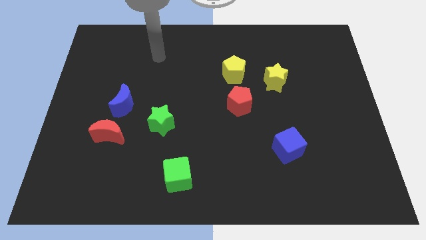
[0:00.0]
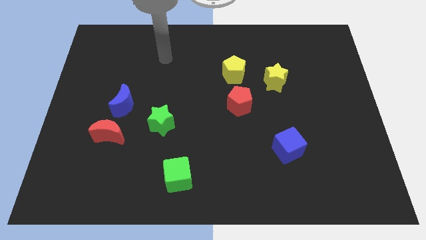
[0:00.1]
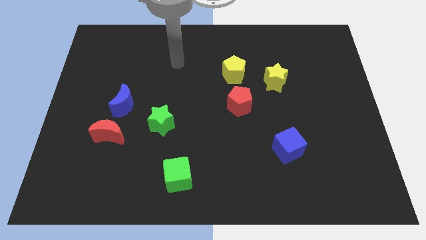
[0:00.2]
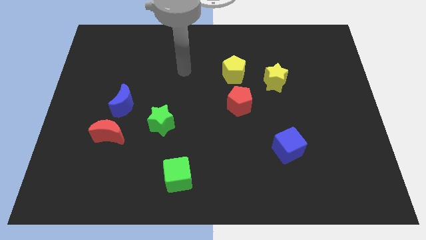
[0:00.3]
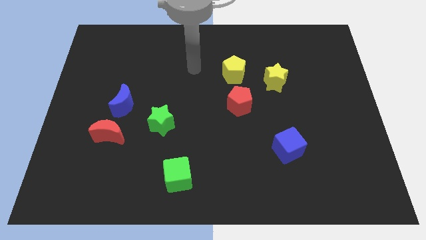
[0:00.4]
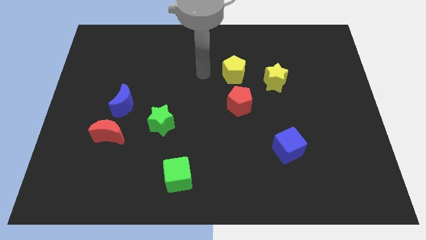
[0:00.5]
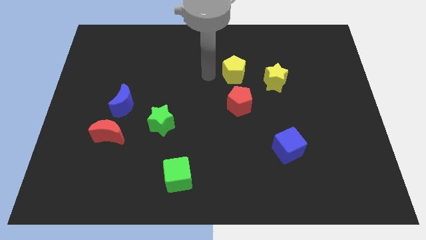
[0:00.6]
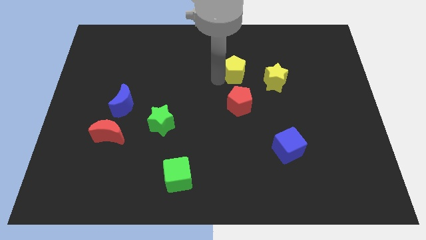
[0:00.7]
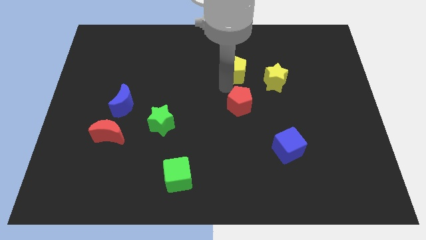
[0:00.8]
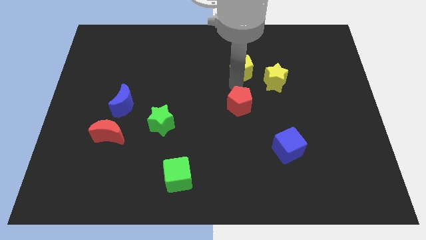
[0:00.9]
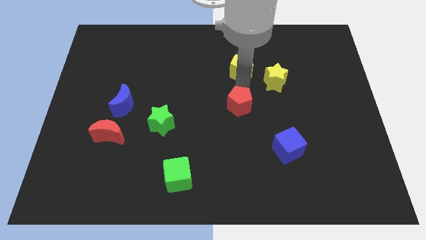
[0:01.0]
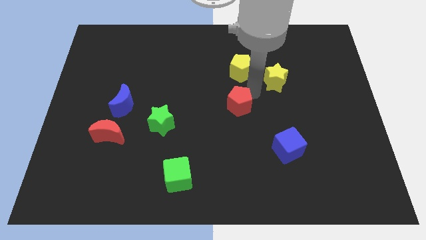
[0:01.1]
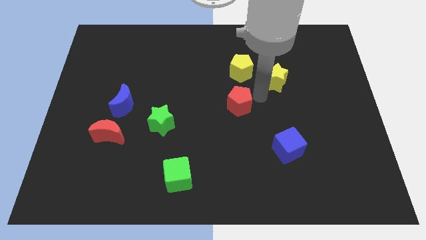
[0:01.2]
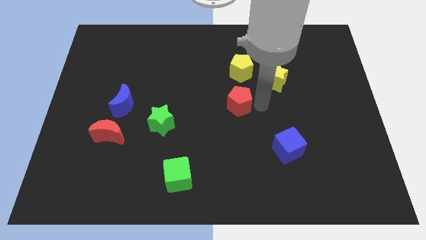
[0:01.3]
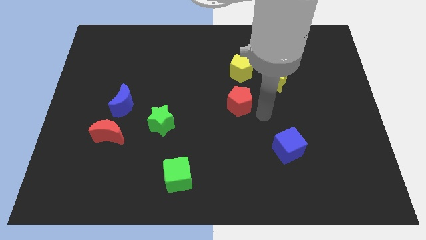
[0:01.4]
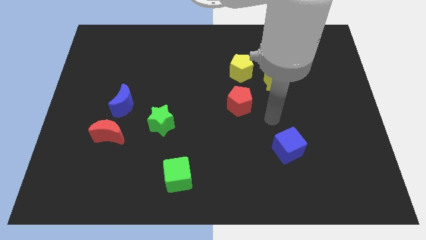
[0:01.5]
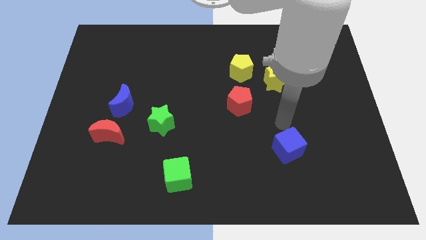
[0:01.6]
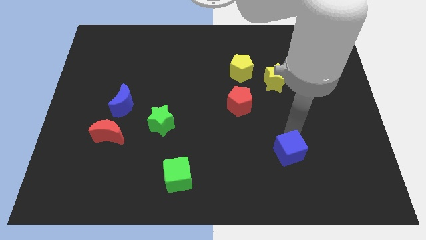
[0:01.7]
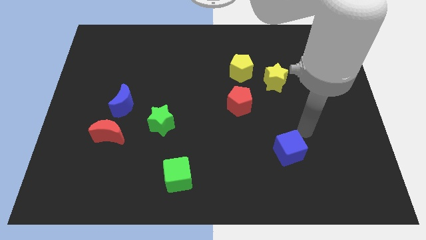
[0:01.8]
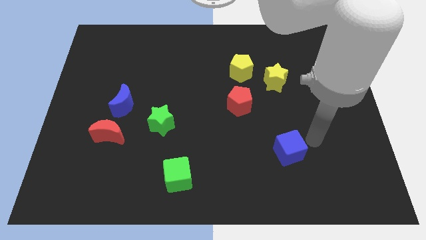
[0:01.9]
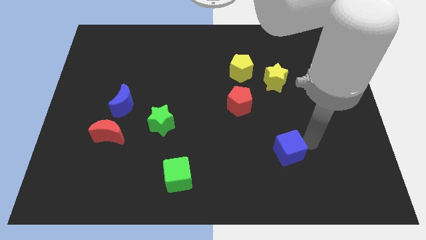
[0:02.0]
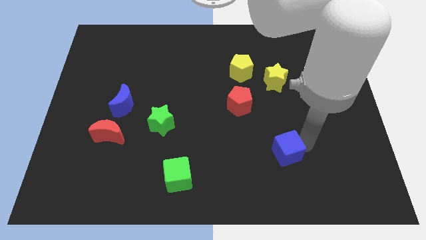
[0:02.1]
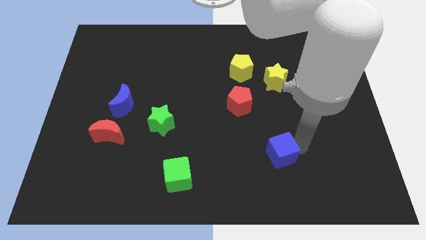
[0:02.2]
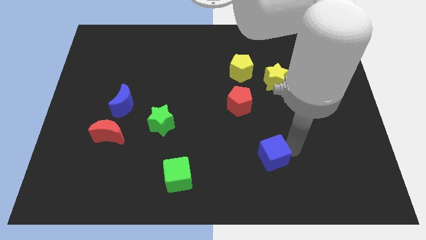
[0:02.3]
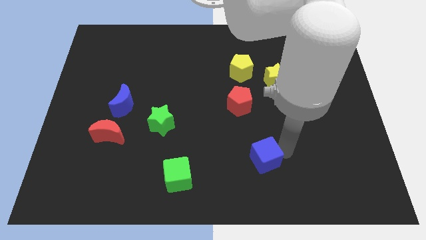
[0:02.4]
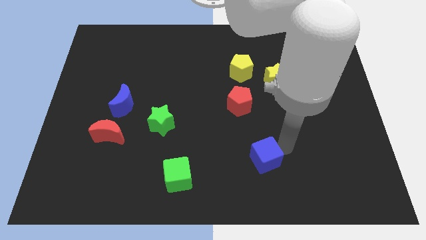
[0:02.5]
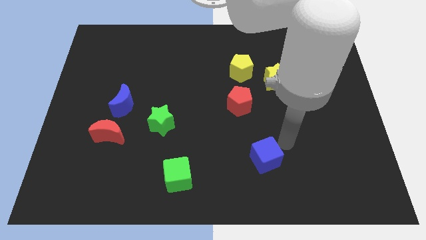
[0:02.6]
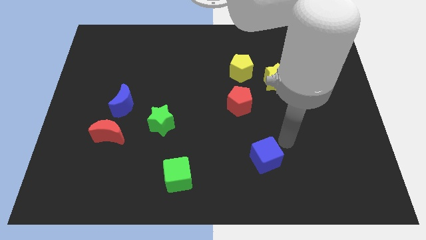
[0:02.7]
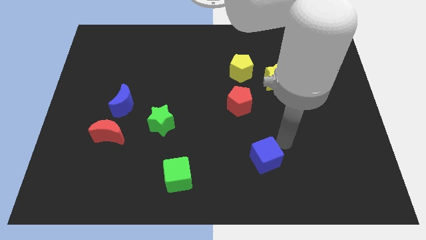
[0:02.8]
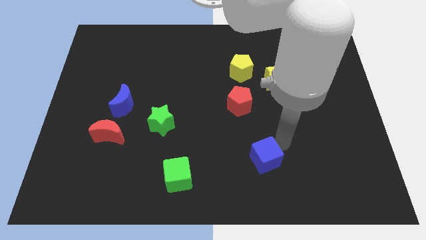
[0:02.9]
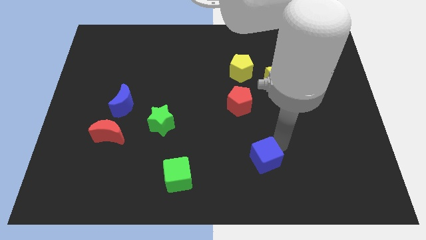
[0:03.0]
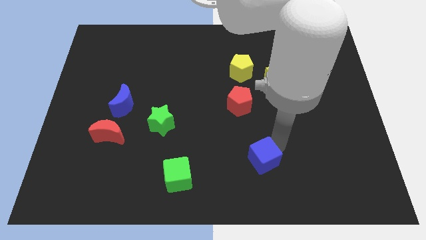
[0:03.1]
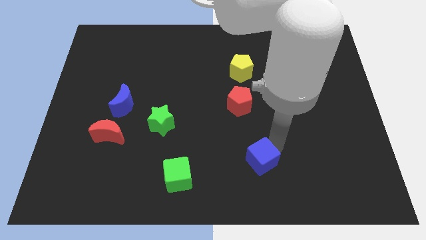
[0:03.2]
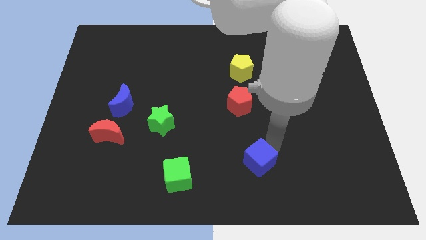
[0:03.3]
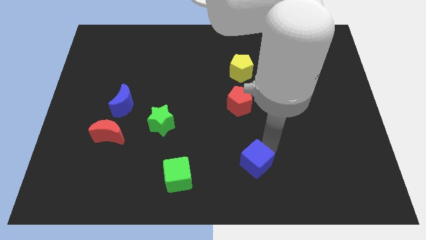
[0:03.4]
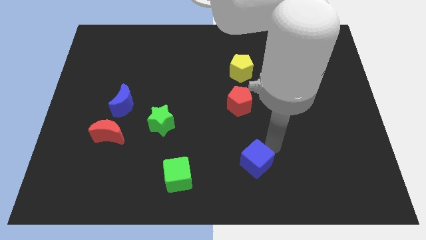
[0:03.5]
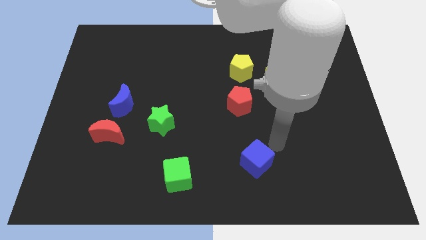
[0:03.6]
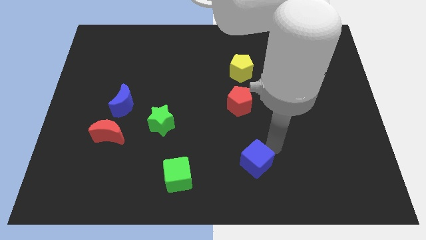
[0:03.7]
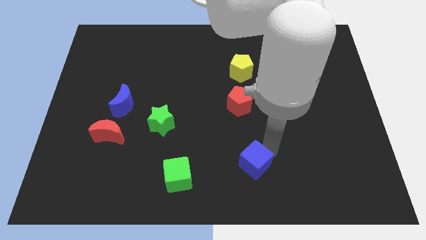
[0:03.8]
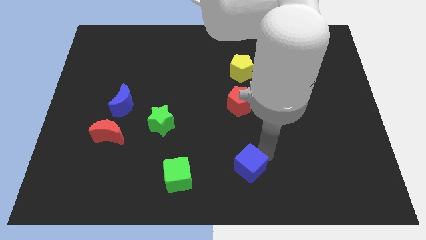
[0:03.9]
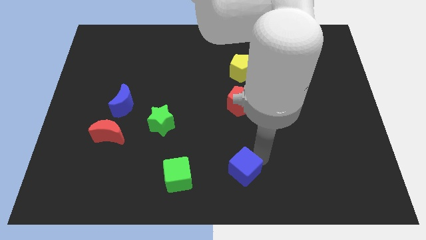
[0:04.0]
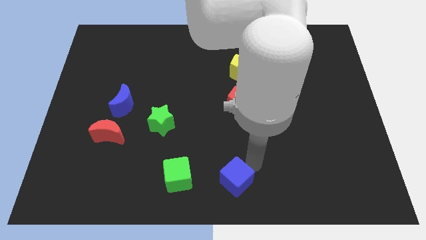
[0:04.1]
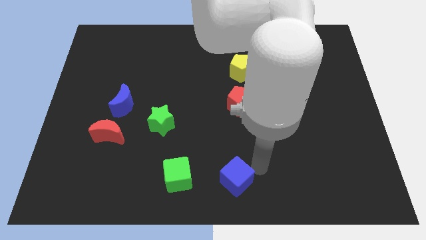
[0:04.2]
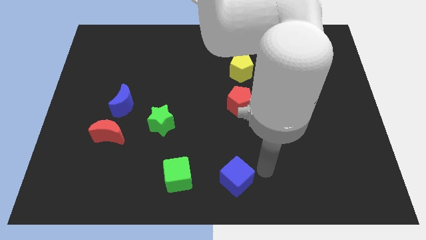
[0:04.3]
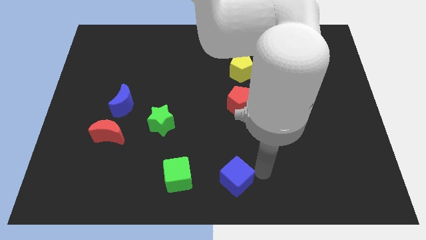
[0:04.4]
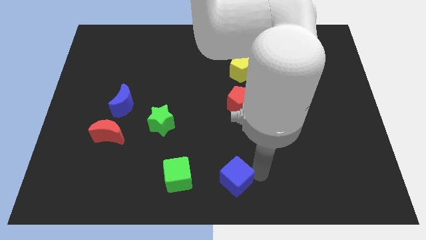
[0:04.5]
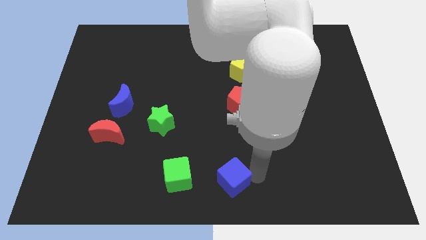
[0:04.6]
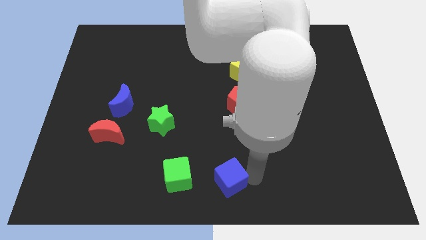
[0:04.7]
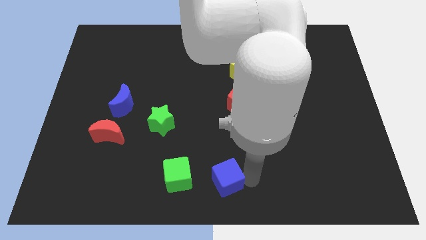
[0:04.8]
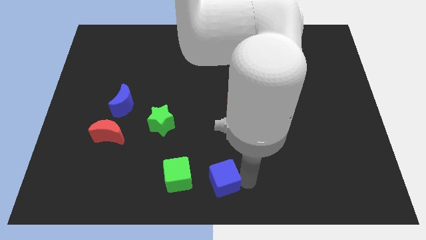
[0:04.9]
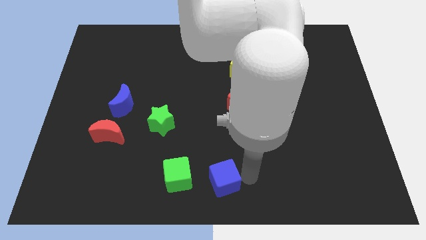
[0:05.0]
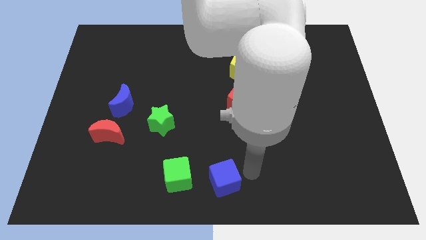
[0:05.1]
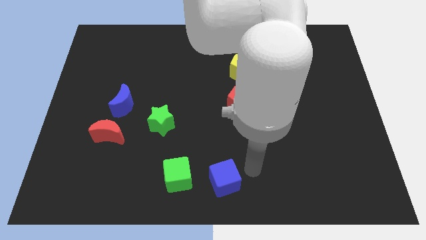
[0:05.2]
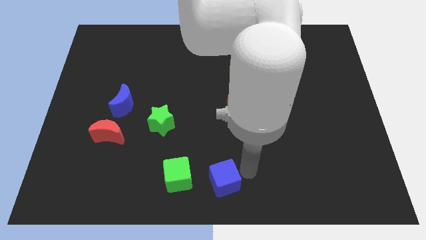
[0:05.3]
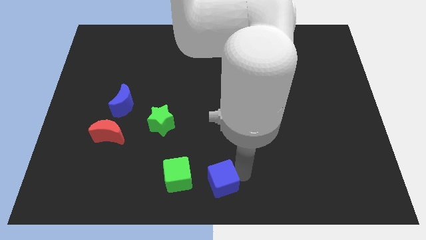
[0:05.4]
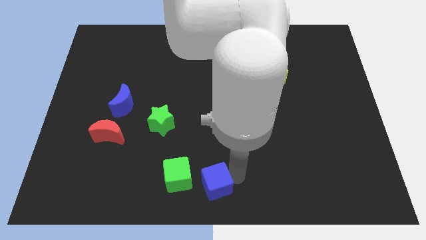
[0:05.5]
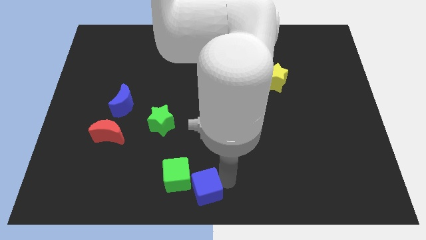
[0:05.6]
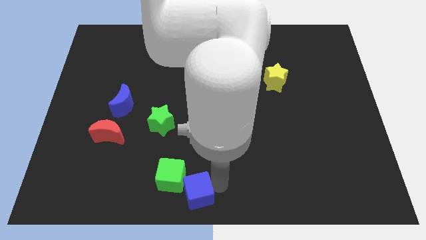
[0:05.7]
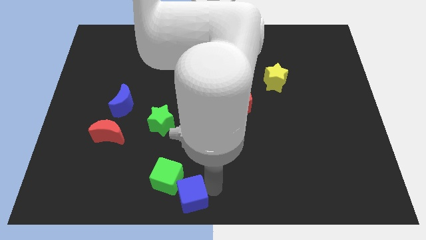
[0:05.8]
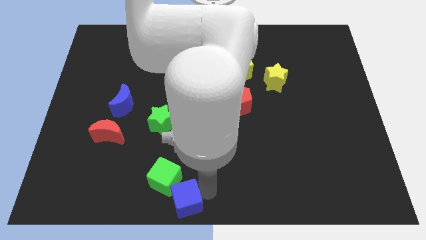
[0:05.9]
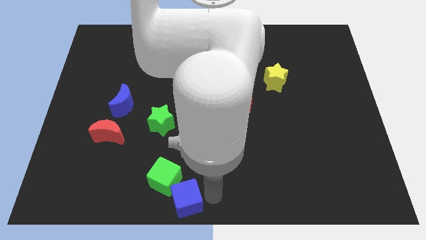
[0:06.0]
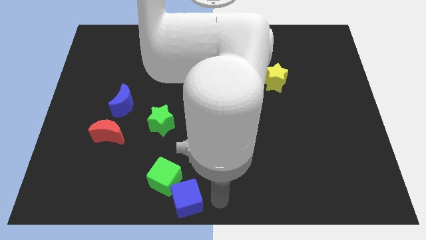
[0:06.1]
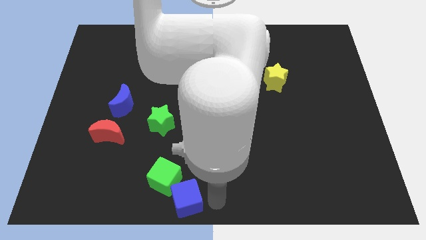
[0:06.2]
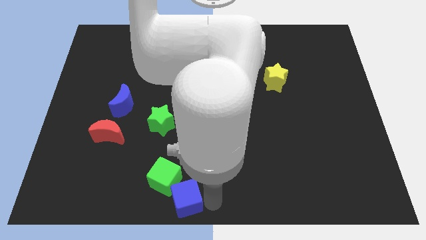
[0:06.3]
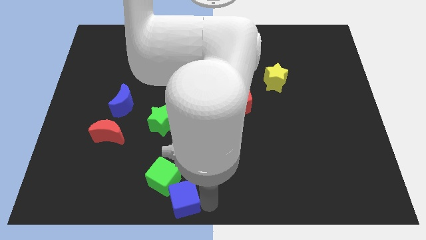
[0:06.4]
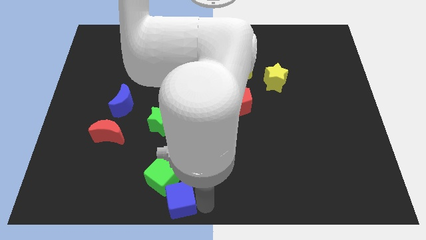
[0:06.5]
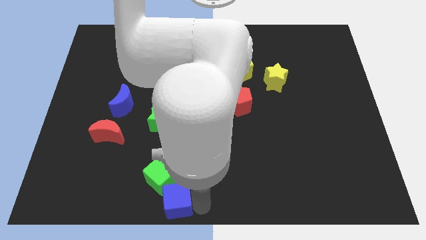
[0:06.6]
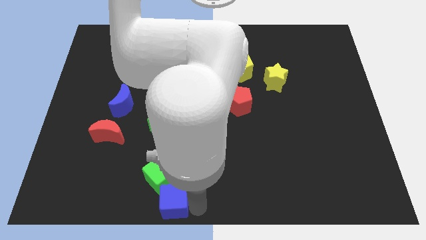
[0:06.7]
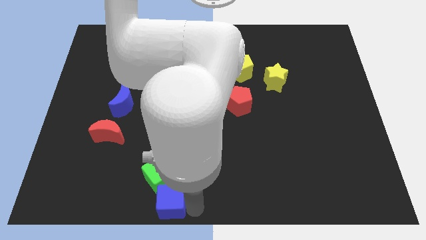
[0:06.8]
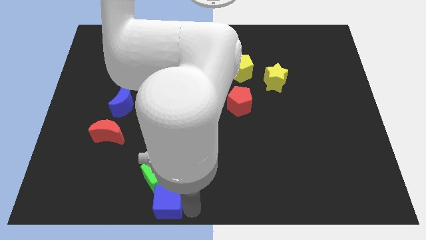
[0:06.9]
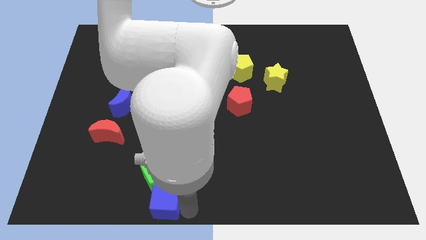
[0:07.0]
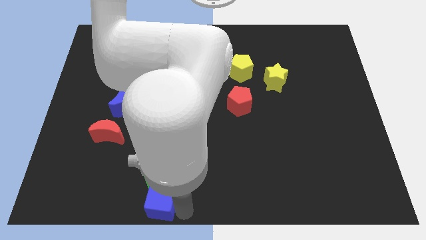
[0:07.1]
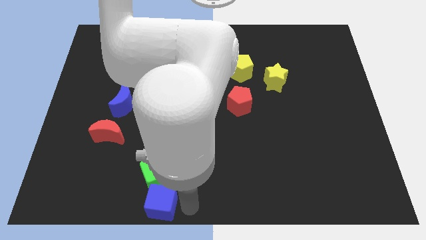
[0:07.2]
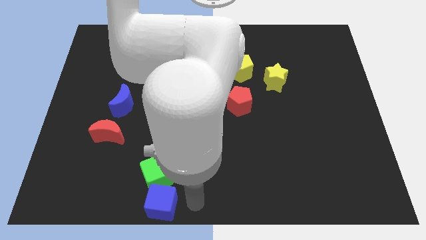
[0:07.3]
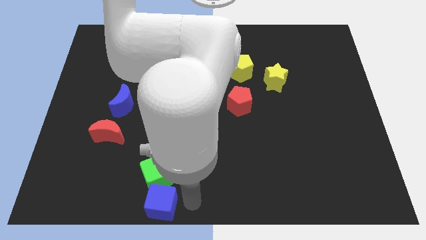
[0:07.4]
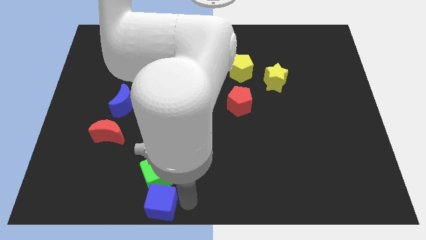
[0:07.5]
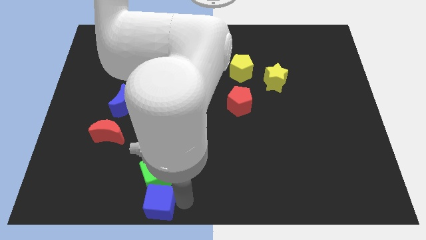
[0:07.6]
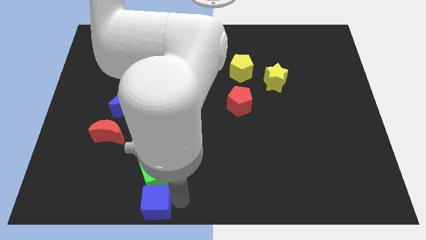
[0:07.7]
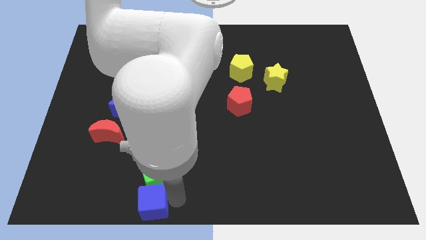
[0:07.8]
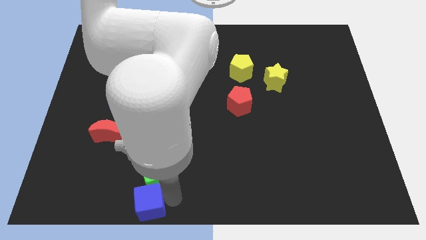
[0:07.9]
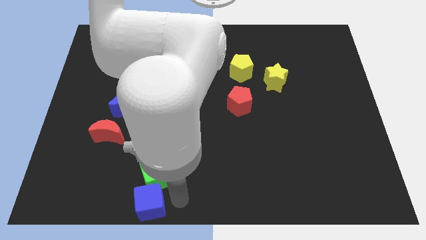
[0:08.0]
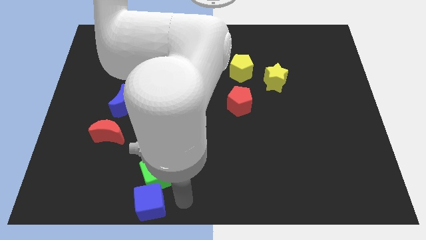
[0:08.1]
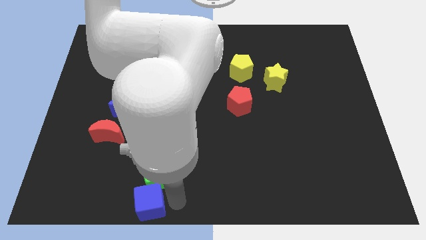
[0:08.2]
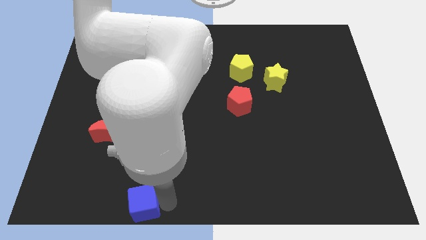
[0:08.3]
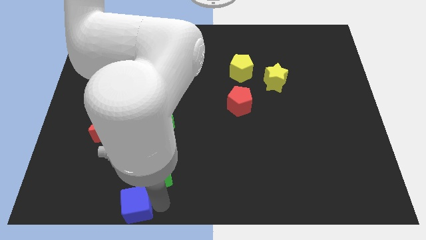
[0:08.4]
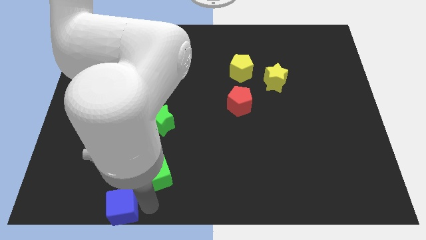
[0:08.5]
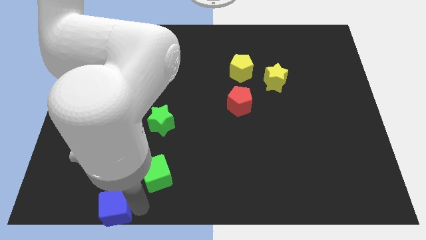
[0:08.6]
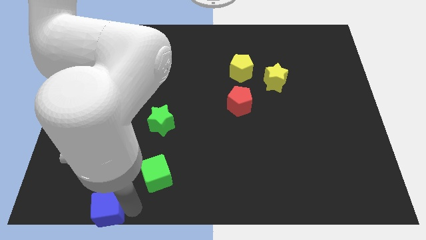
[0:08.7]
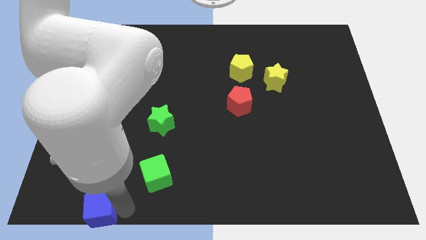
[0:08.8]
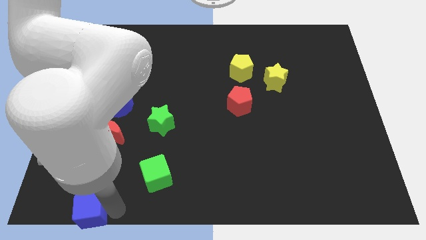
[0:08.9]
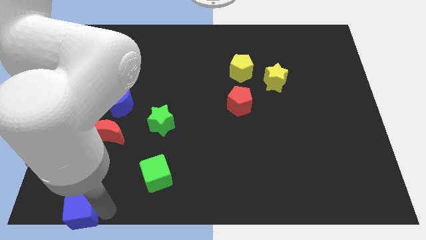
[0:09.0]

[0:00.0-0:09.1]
slide the blue cube to the lower left corner
